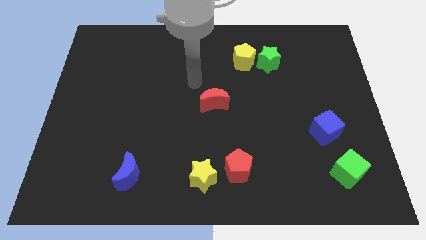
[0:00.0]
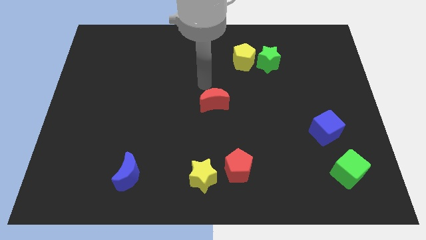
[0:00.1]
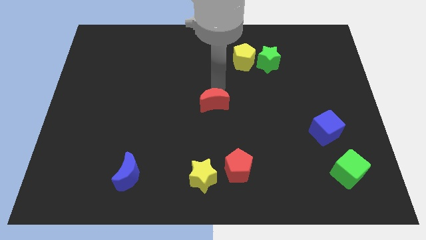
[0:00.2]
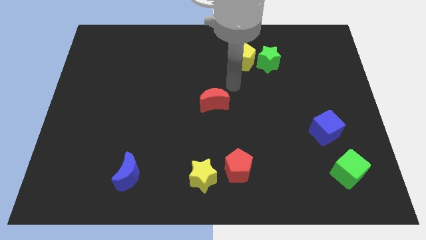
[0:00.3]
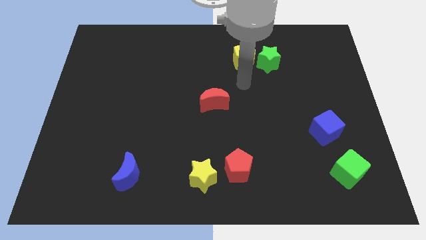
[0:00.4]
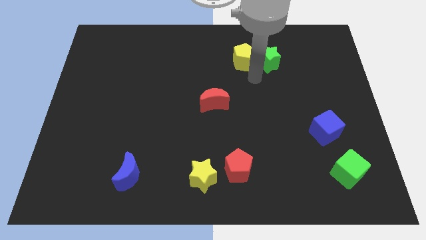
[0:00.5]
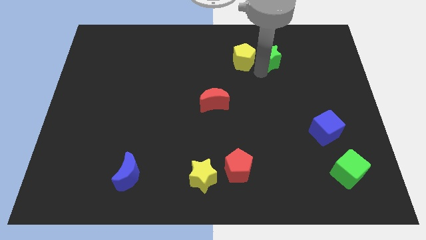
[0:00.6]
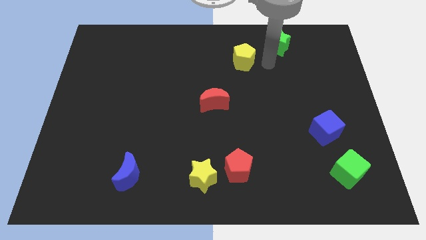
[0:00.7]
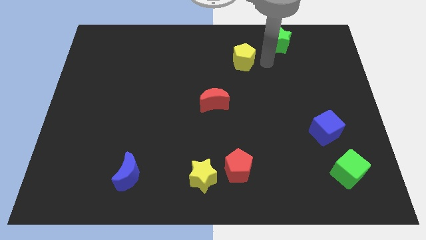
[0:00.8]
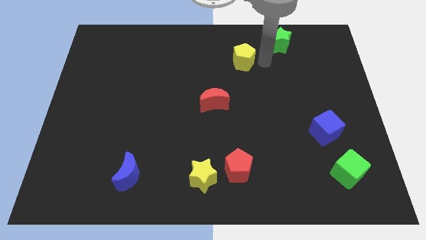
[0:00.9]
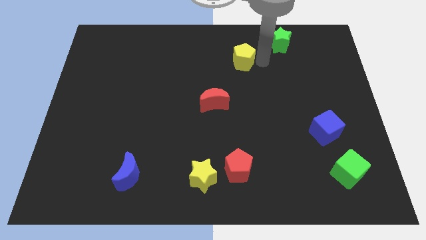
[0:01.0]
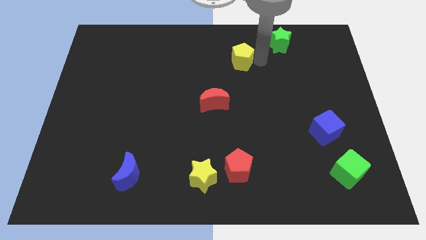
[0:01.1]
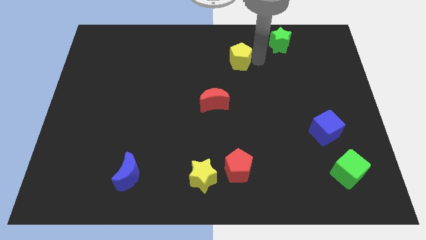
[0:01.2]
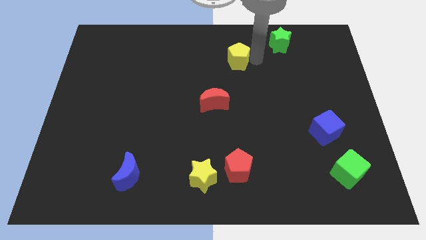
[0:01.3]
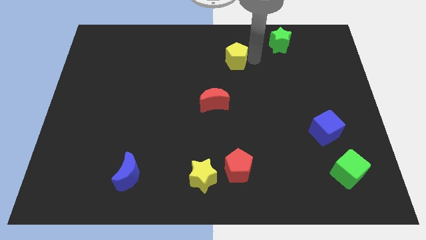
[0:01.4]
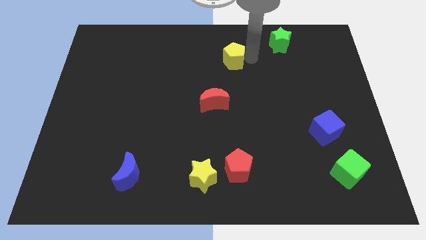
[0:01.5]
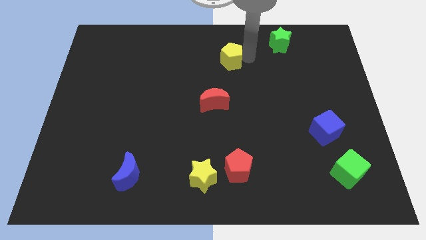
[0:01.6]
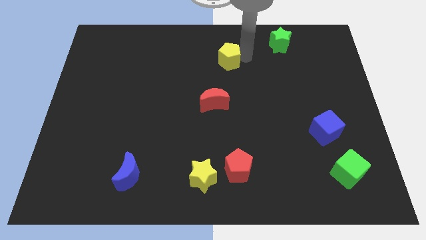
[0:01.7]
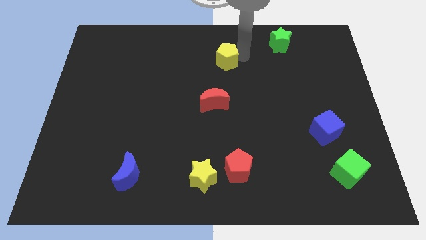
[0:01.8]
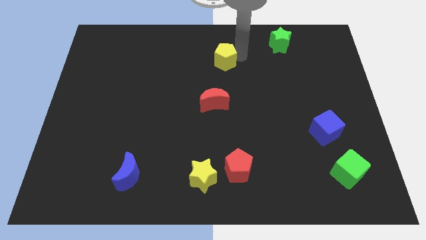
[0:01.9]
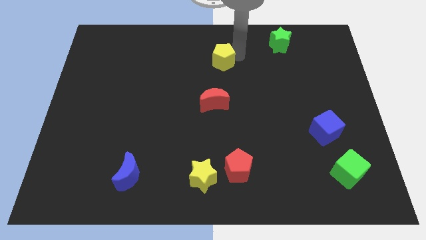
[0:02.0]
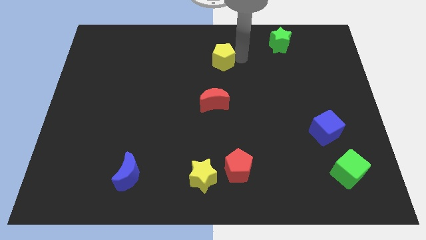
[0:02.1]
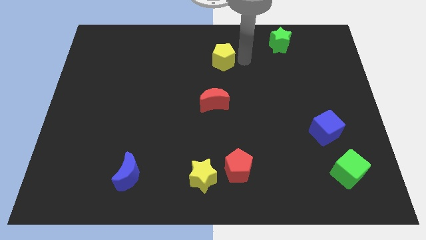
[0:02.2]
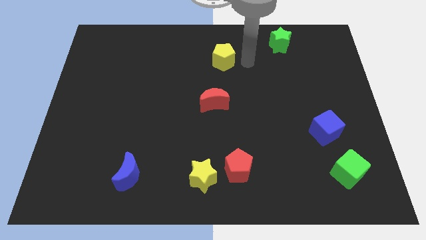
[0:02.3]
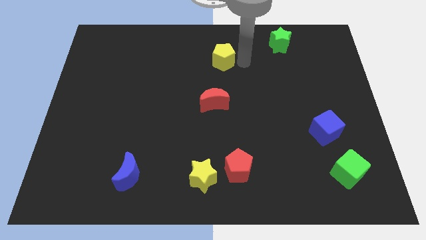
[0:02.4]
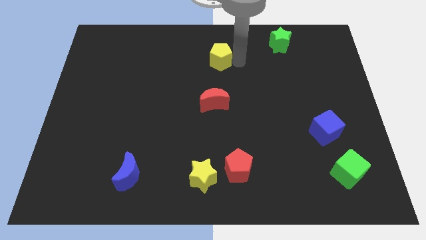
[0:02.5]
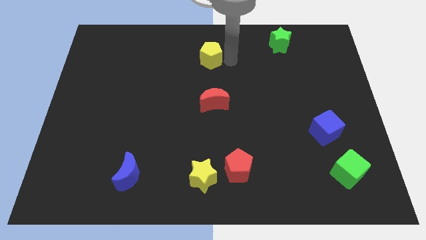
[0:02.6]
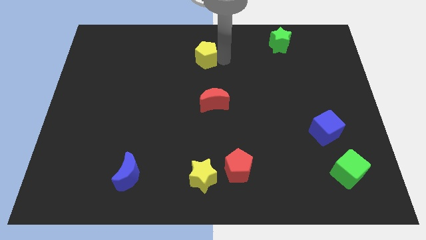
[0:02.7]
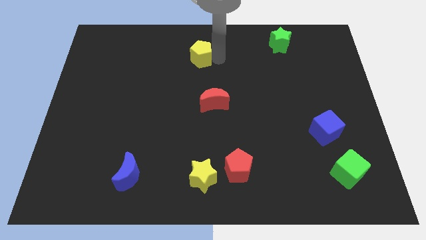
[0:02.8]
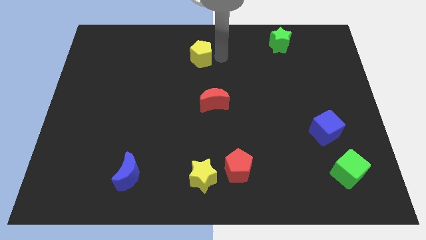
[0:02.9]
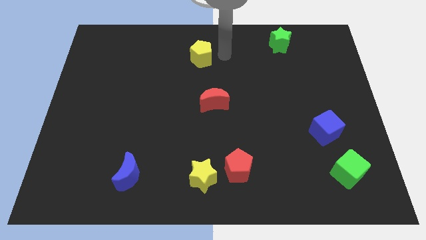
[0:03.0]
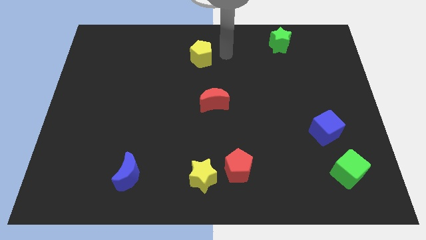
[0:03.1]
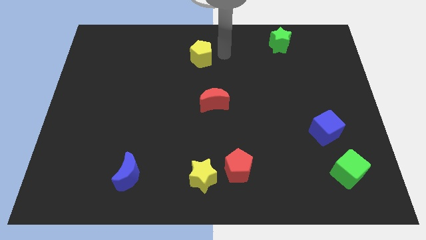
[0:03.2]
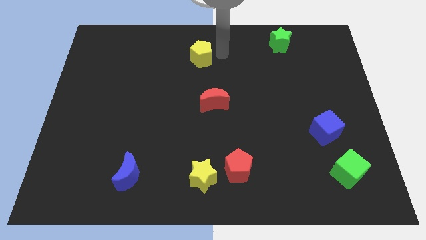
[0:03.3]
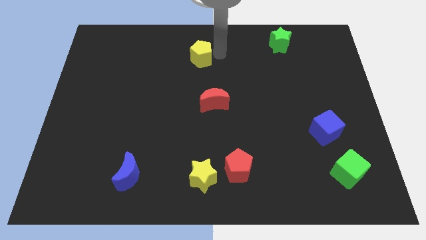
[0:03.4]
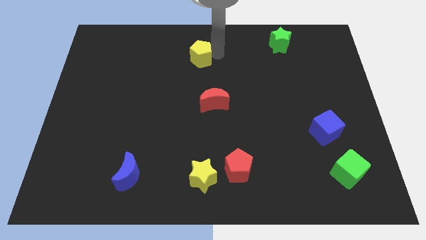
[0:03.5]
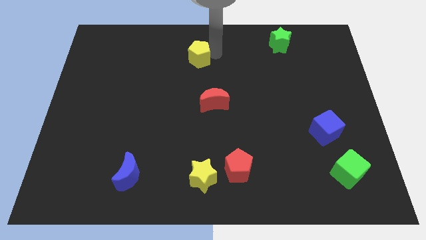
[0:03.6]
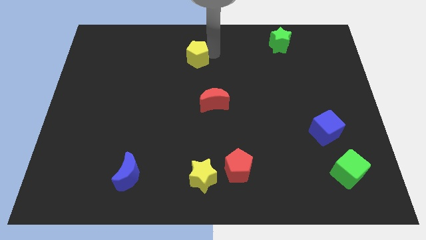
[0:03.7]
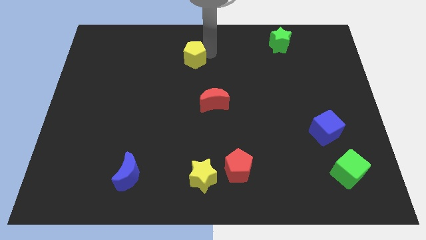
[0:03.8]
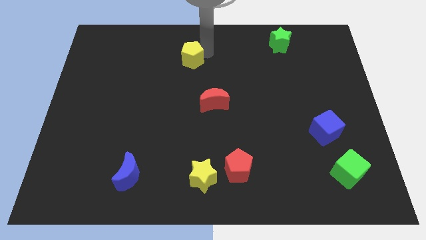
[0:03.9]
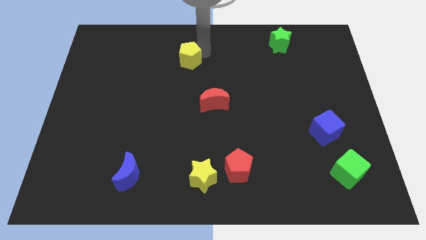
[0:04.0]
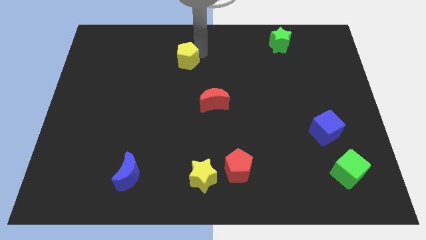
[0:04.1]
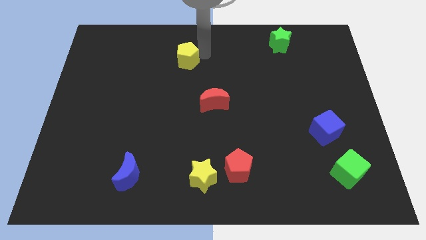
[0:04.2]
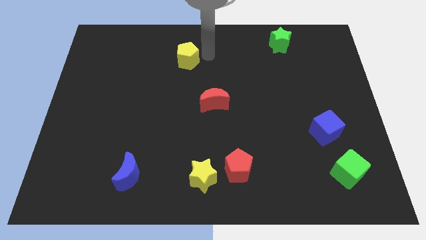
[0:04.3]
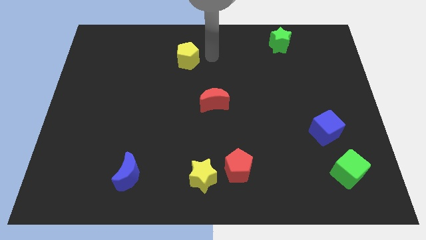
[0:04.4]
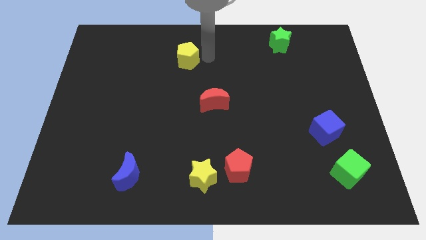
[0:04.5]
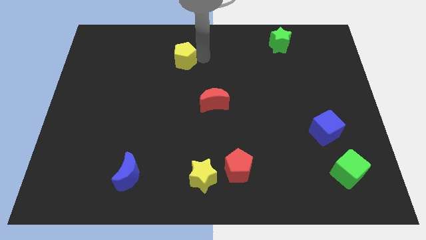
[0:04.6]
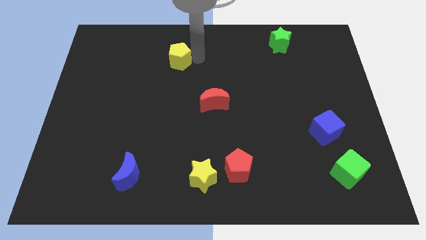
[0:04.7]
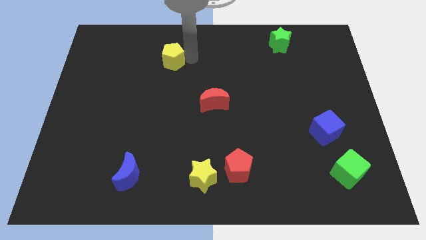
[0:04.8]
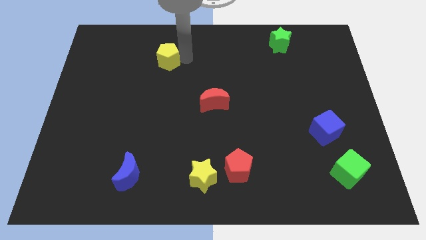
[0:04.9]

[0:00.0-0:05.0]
move the yellow pentagon to the left

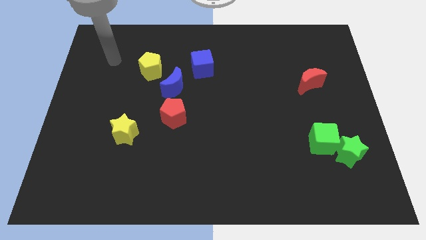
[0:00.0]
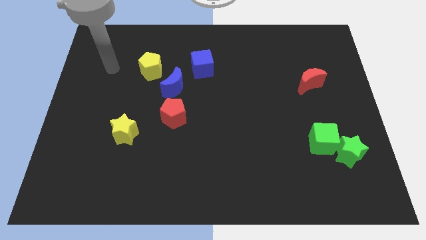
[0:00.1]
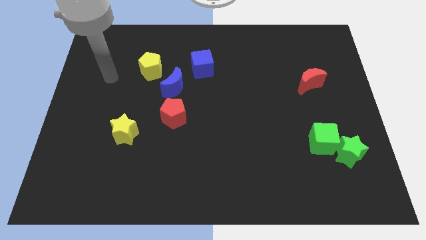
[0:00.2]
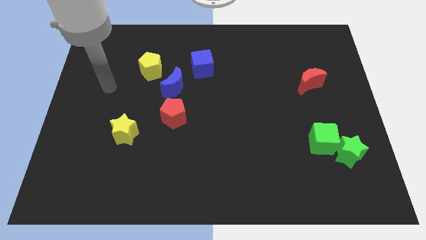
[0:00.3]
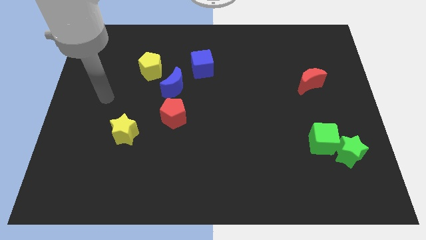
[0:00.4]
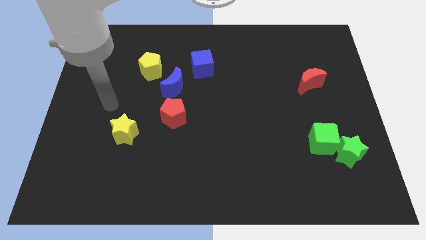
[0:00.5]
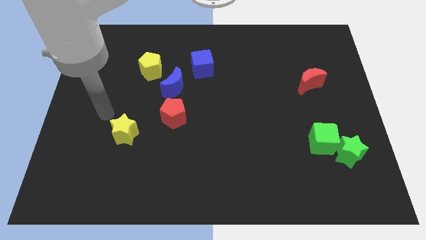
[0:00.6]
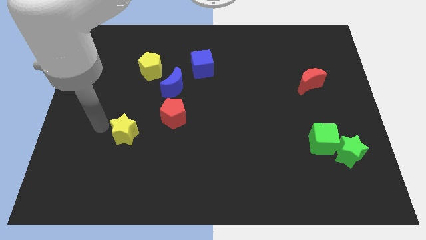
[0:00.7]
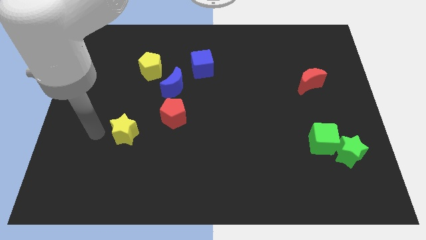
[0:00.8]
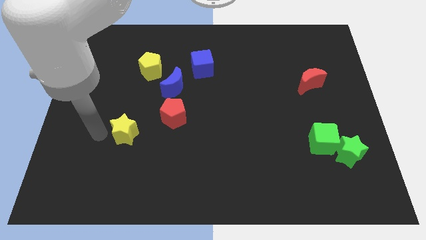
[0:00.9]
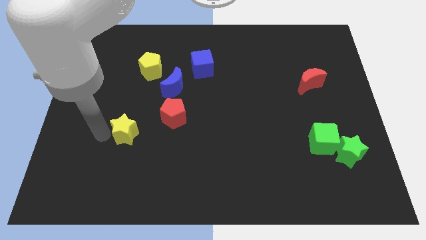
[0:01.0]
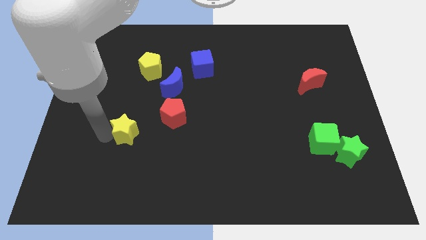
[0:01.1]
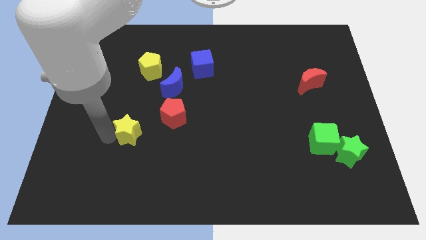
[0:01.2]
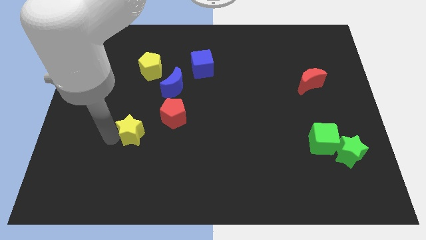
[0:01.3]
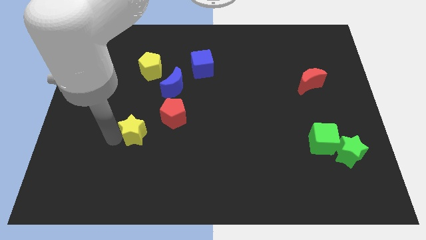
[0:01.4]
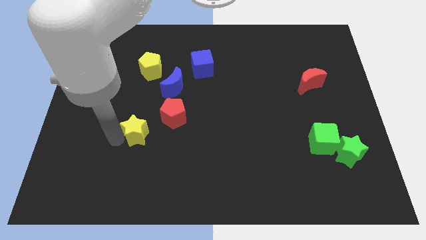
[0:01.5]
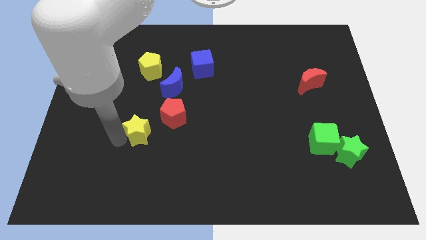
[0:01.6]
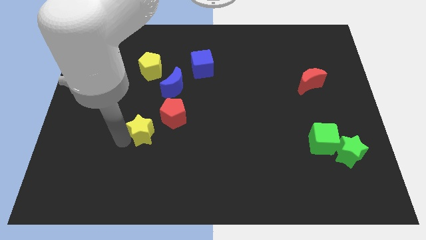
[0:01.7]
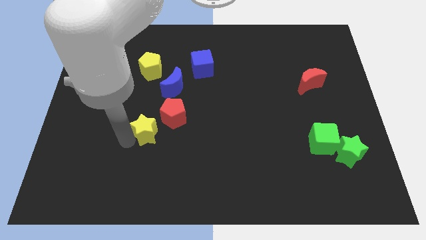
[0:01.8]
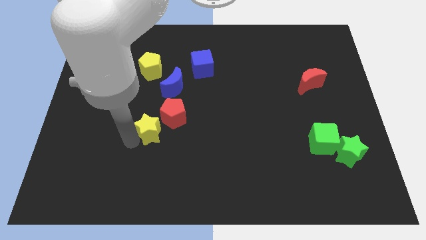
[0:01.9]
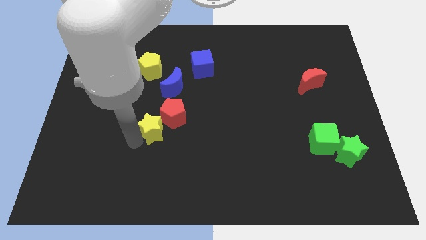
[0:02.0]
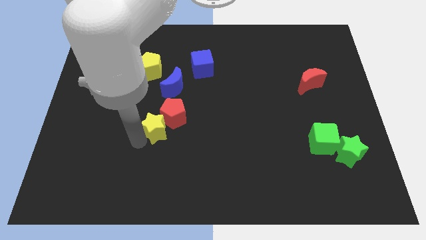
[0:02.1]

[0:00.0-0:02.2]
push the yellow star to the right a little

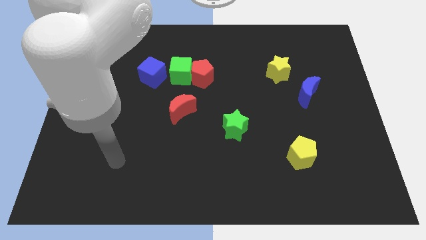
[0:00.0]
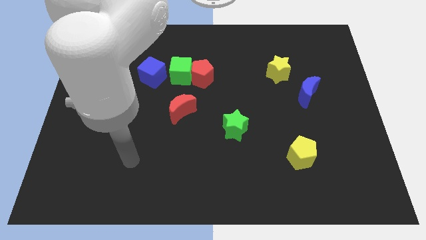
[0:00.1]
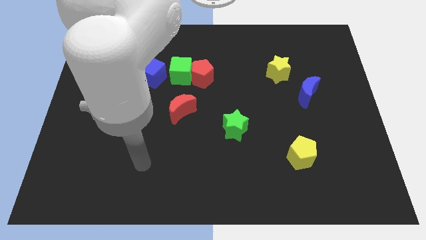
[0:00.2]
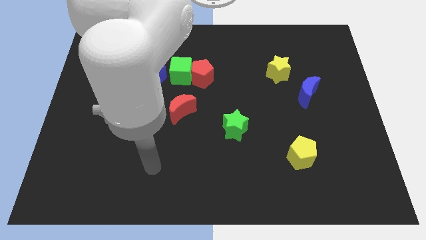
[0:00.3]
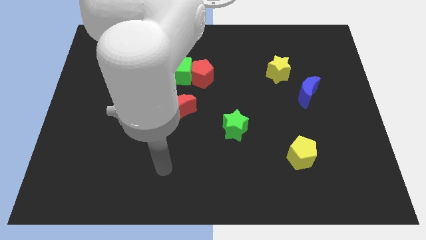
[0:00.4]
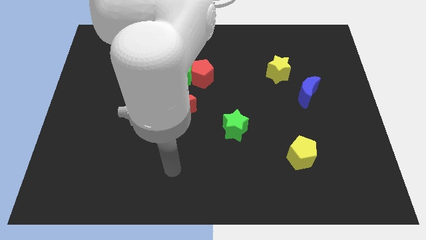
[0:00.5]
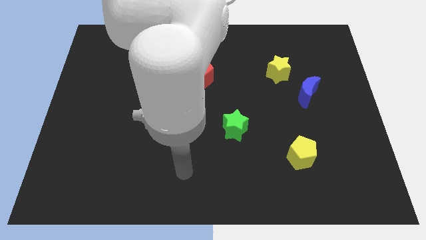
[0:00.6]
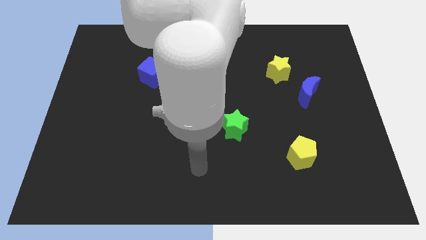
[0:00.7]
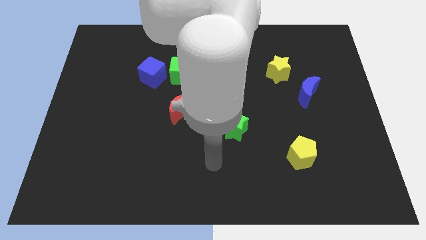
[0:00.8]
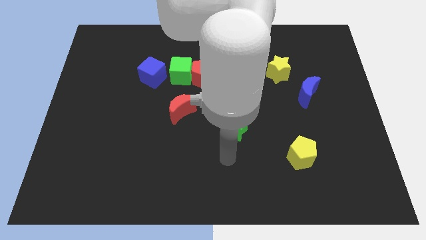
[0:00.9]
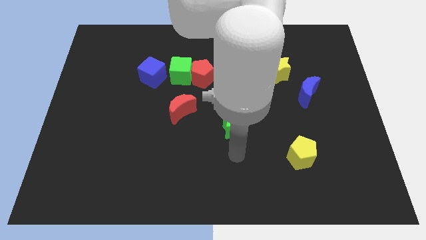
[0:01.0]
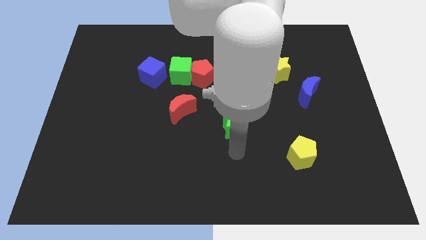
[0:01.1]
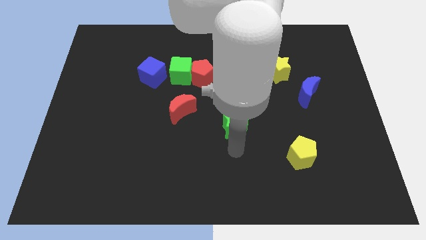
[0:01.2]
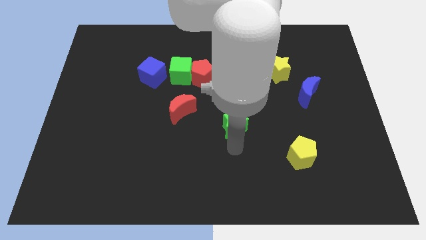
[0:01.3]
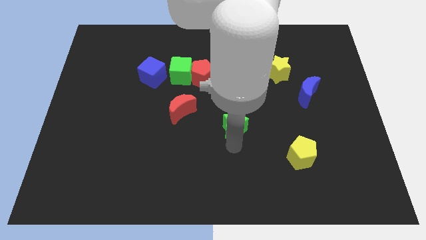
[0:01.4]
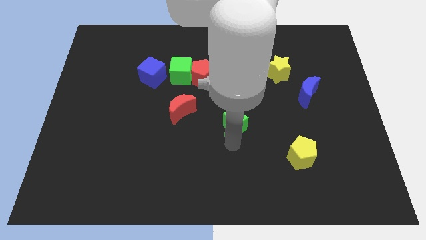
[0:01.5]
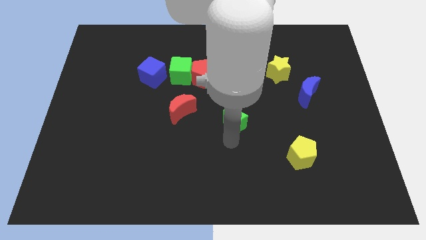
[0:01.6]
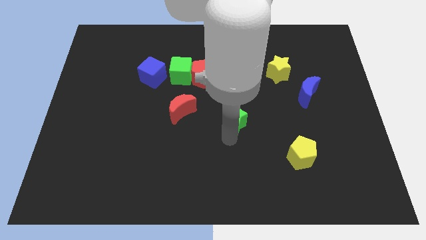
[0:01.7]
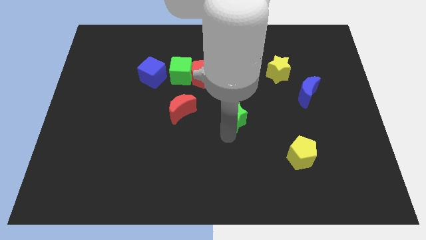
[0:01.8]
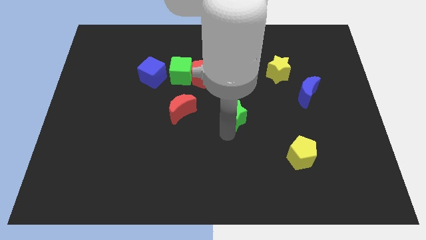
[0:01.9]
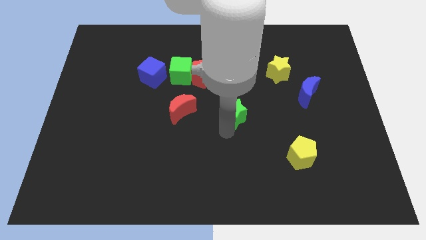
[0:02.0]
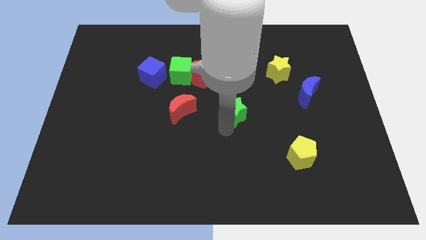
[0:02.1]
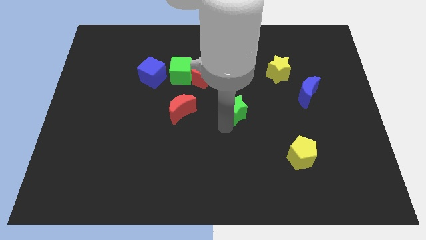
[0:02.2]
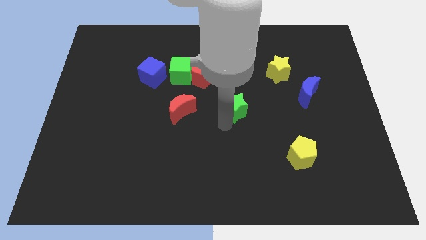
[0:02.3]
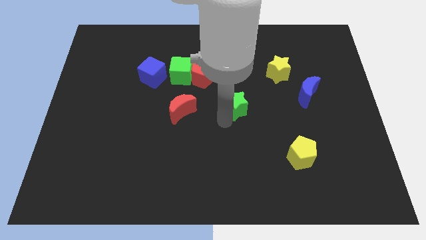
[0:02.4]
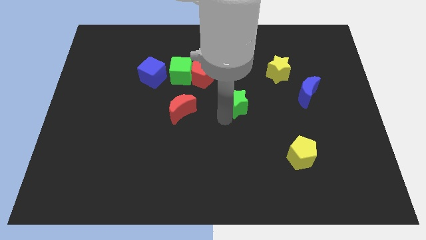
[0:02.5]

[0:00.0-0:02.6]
slightly move the green star up
